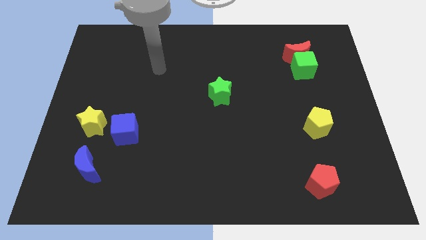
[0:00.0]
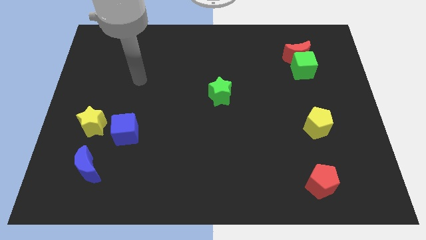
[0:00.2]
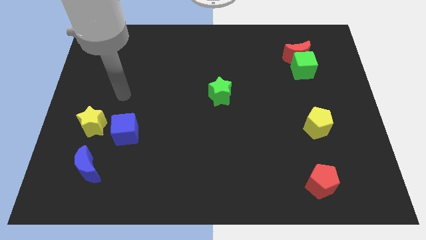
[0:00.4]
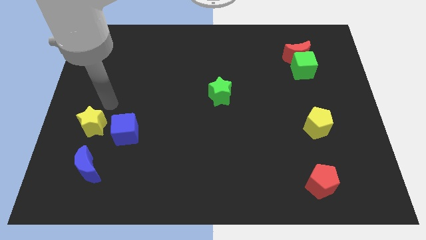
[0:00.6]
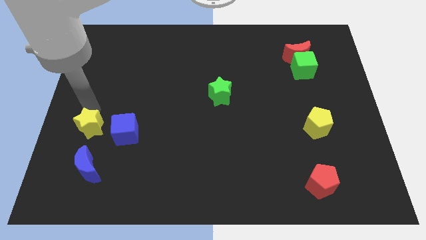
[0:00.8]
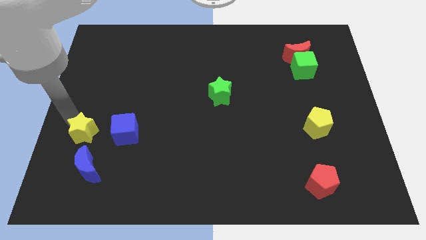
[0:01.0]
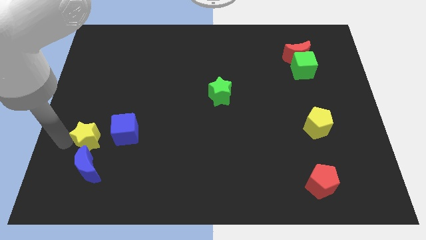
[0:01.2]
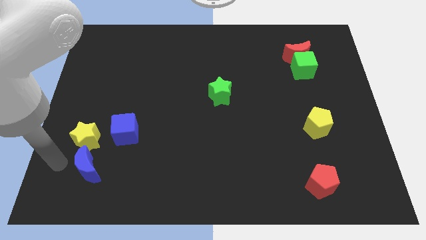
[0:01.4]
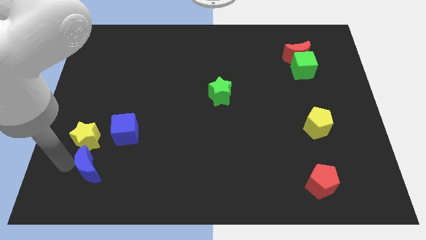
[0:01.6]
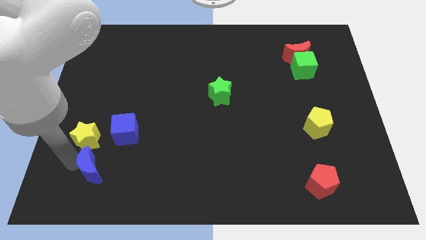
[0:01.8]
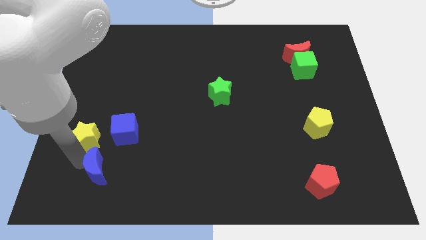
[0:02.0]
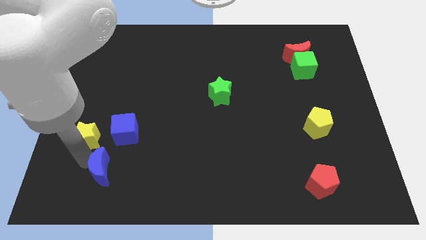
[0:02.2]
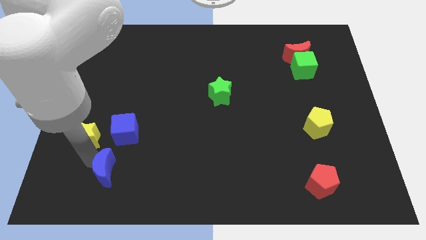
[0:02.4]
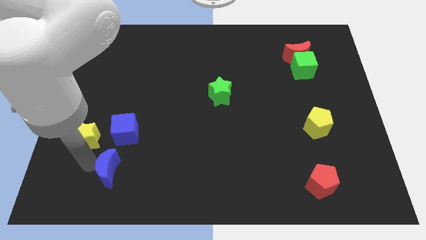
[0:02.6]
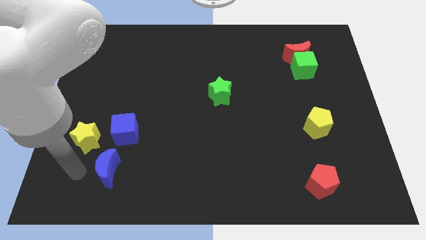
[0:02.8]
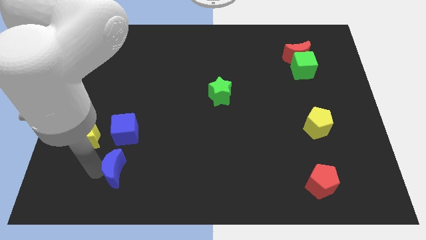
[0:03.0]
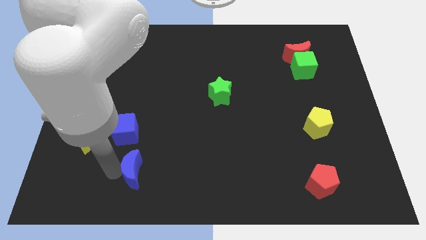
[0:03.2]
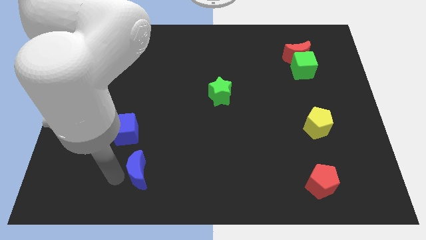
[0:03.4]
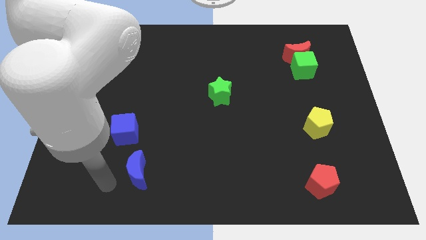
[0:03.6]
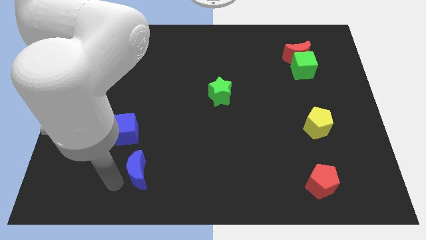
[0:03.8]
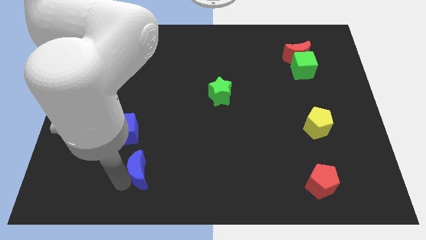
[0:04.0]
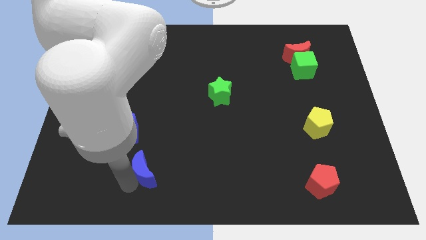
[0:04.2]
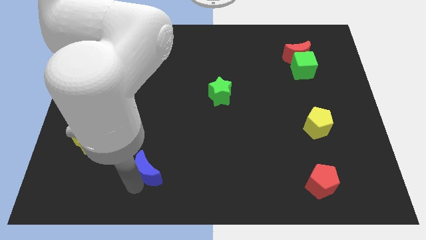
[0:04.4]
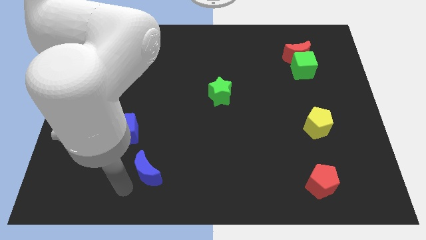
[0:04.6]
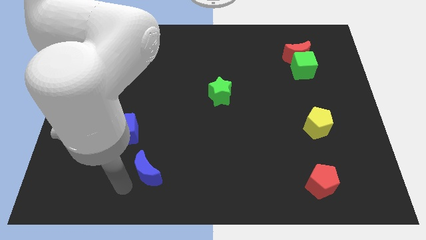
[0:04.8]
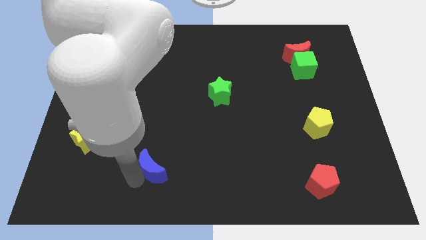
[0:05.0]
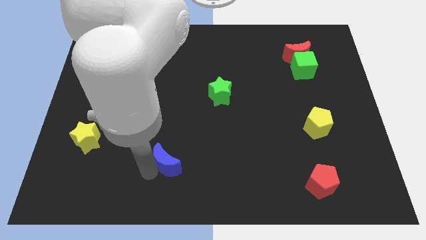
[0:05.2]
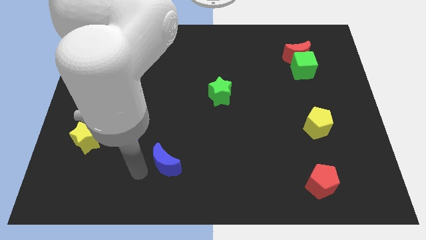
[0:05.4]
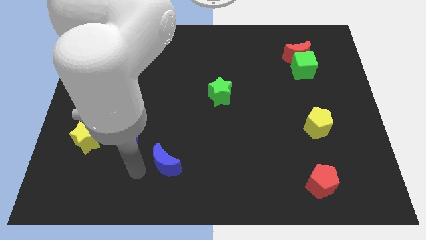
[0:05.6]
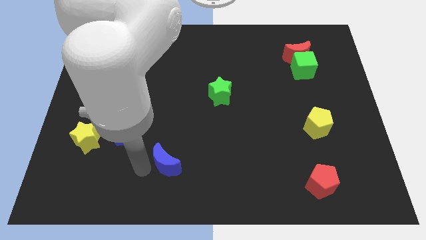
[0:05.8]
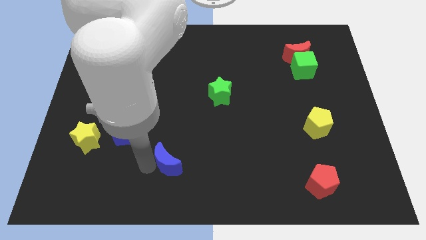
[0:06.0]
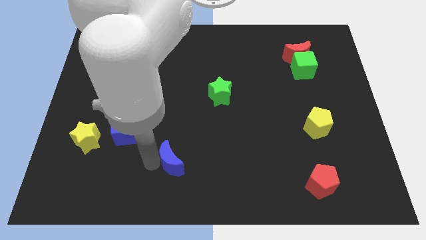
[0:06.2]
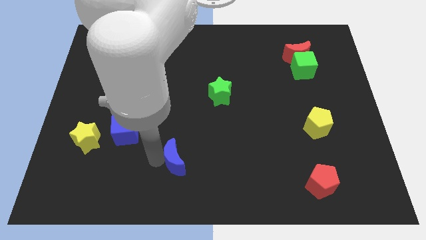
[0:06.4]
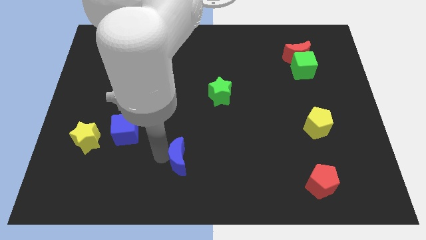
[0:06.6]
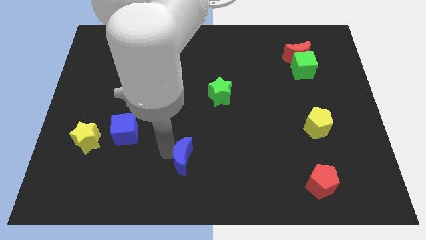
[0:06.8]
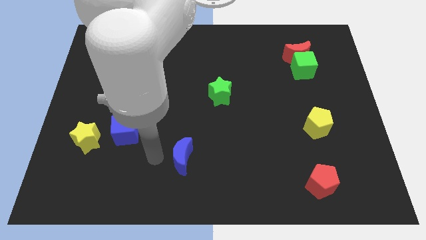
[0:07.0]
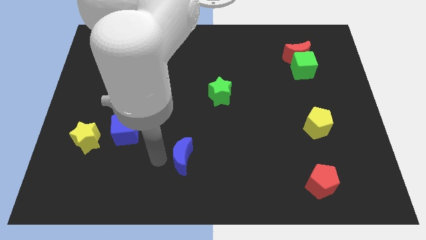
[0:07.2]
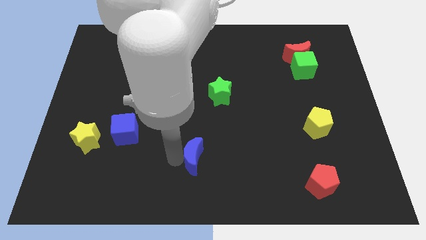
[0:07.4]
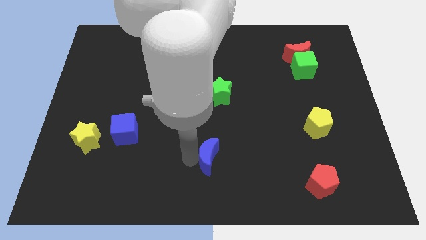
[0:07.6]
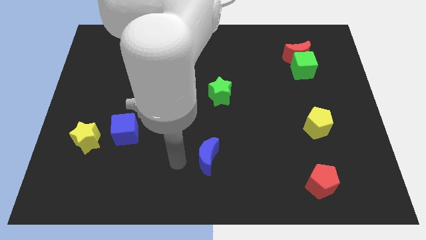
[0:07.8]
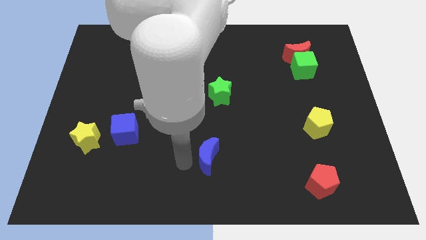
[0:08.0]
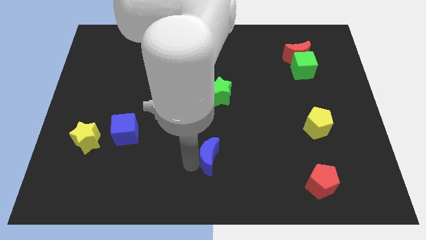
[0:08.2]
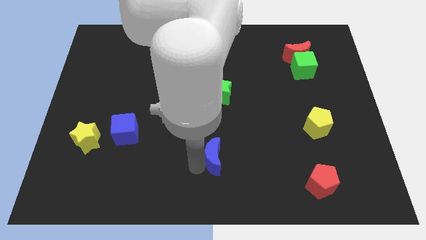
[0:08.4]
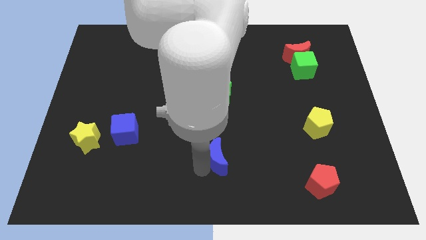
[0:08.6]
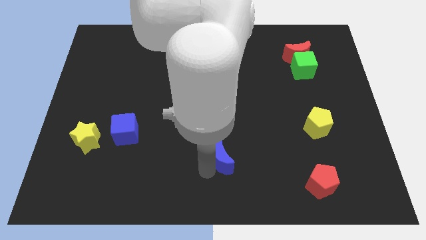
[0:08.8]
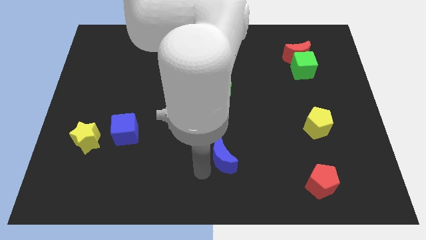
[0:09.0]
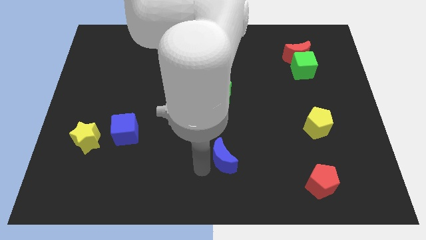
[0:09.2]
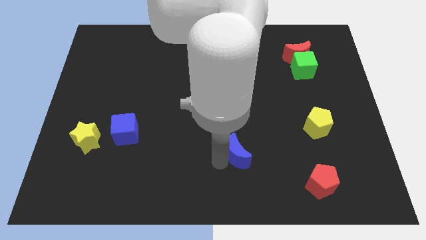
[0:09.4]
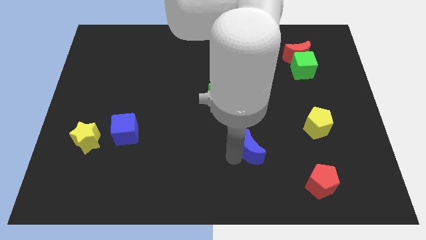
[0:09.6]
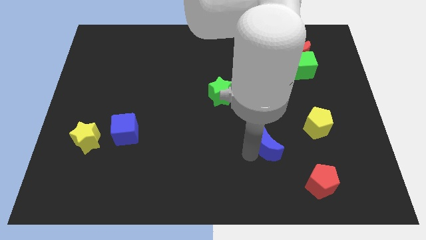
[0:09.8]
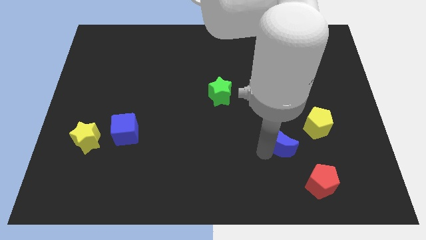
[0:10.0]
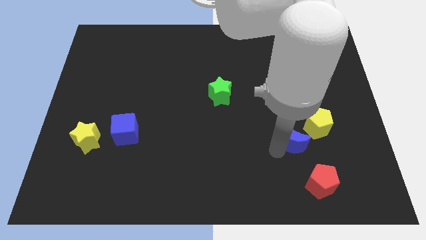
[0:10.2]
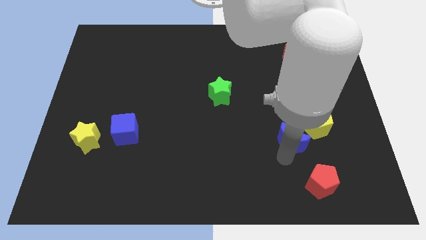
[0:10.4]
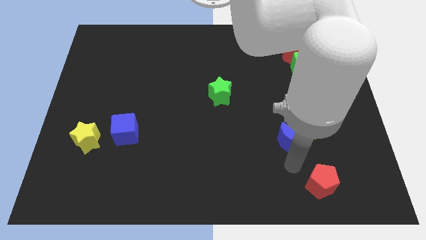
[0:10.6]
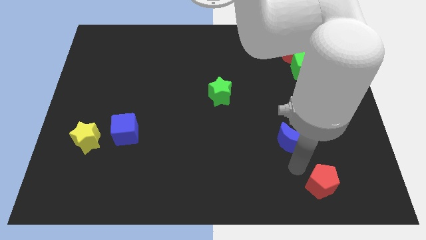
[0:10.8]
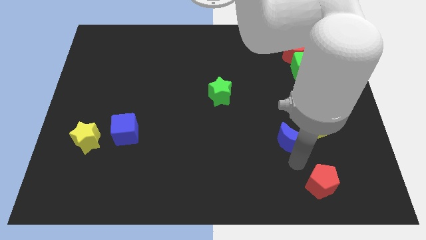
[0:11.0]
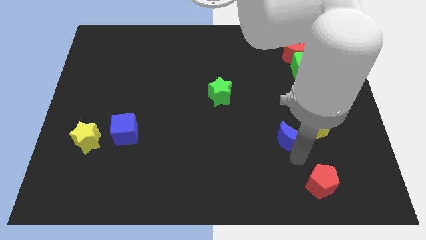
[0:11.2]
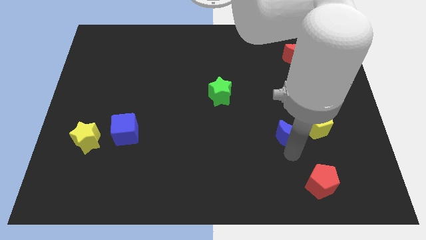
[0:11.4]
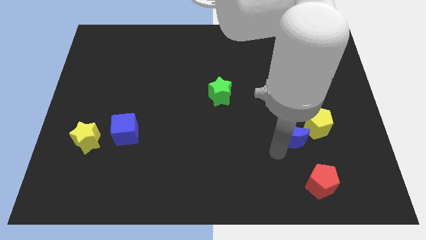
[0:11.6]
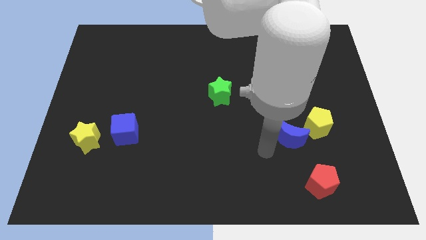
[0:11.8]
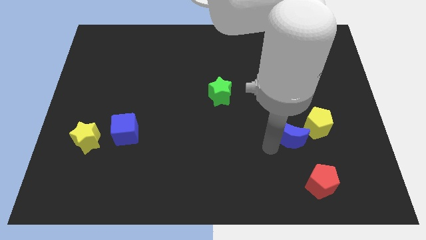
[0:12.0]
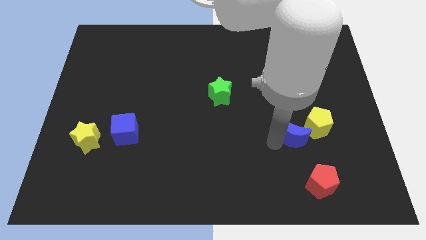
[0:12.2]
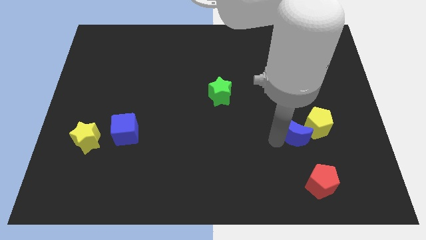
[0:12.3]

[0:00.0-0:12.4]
push the blue moon towards the yellow pentagon

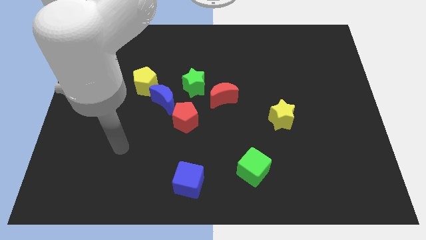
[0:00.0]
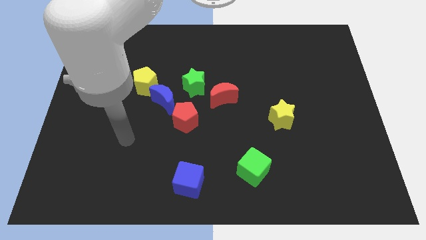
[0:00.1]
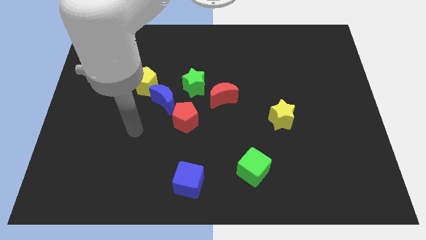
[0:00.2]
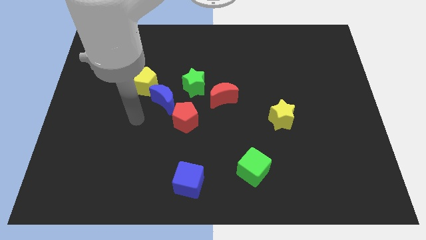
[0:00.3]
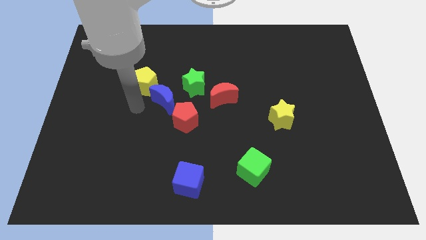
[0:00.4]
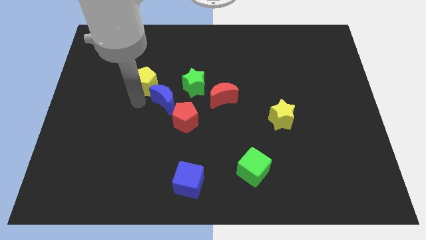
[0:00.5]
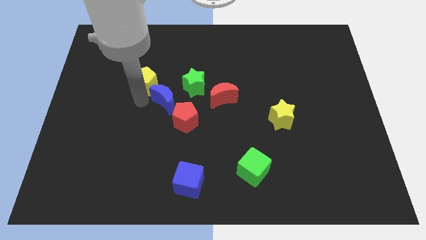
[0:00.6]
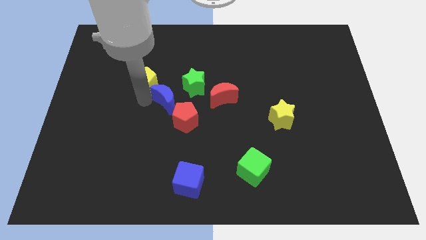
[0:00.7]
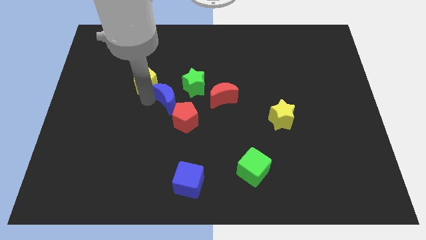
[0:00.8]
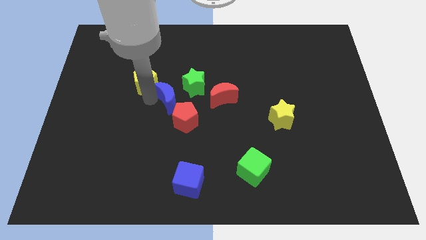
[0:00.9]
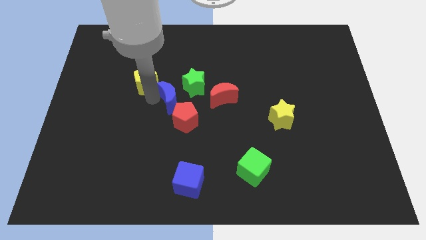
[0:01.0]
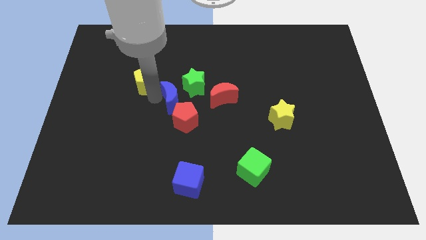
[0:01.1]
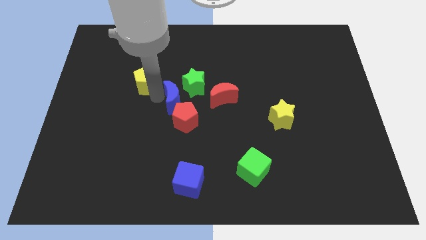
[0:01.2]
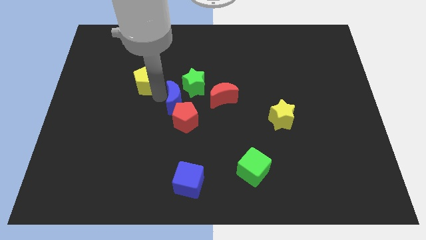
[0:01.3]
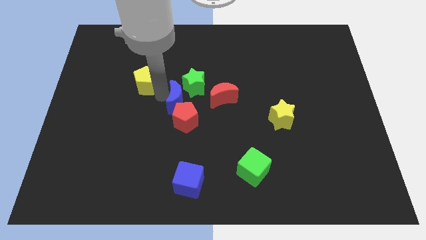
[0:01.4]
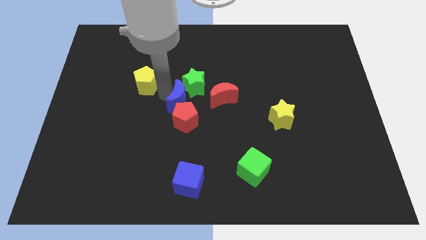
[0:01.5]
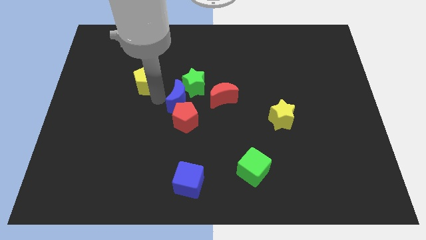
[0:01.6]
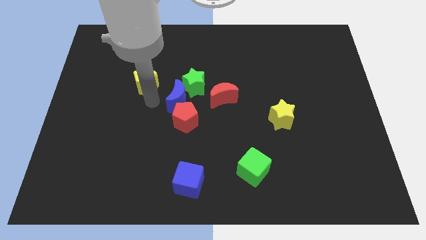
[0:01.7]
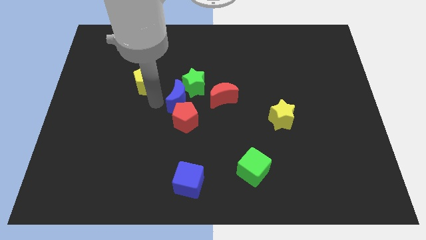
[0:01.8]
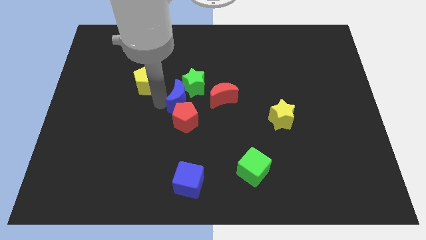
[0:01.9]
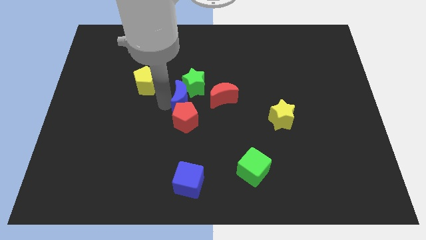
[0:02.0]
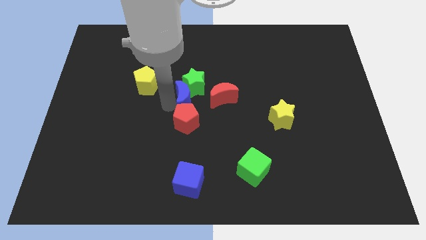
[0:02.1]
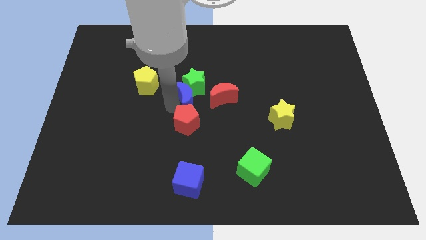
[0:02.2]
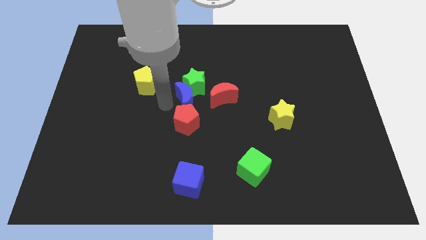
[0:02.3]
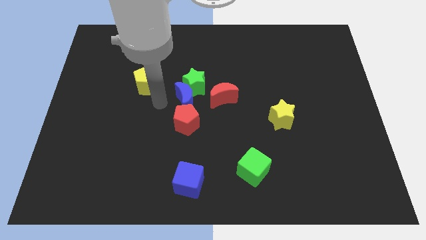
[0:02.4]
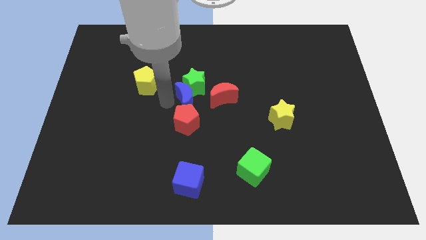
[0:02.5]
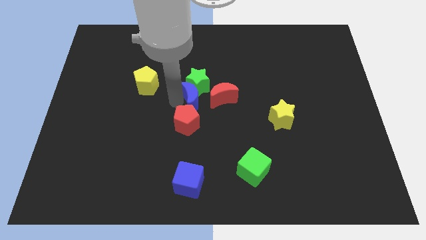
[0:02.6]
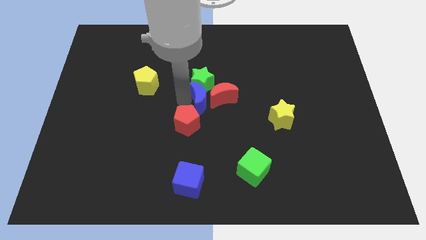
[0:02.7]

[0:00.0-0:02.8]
move the blue moon next to the red moon
